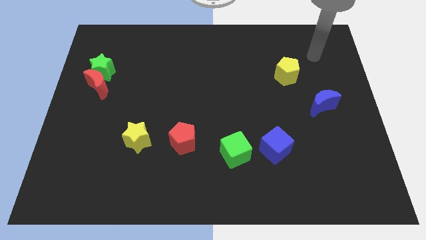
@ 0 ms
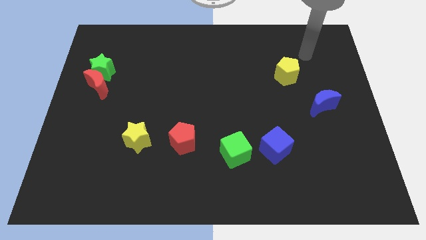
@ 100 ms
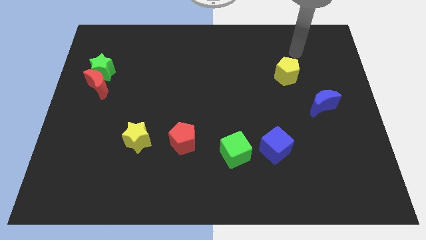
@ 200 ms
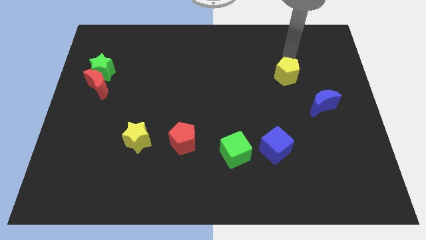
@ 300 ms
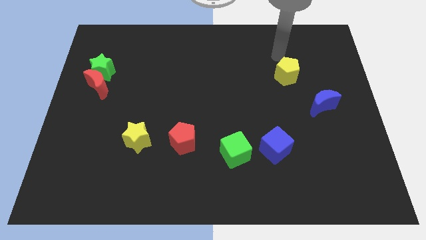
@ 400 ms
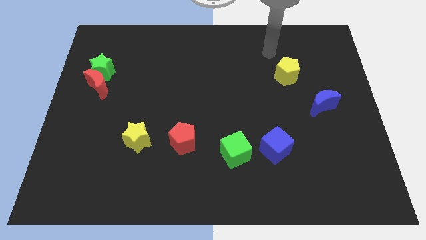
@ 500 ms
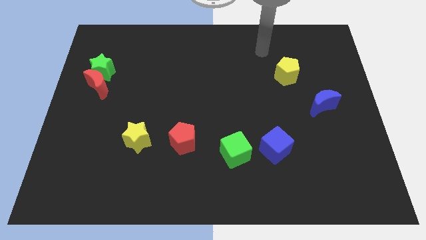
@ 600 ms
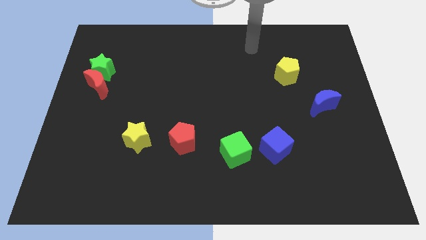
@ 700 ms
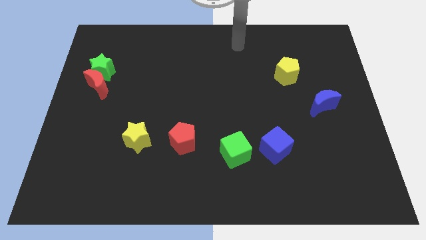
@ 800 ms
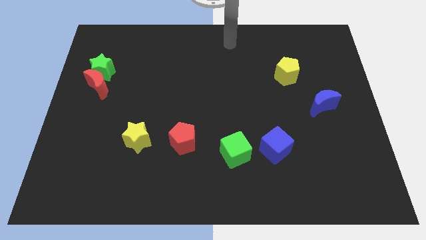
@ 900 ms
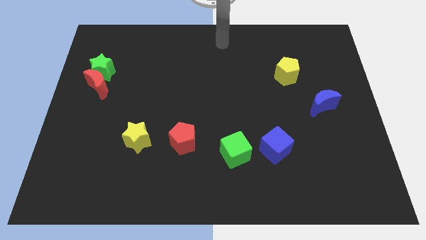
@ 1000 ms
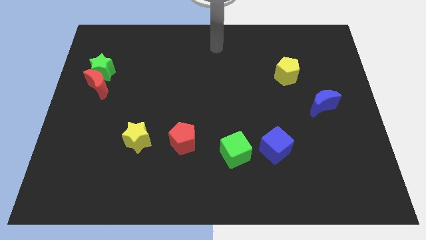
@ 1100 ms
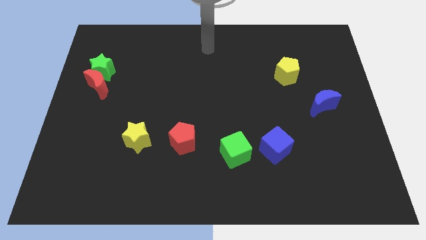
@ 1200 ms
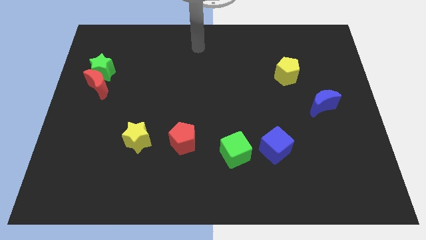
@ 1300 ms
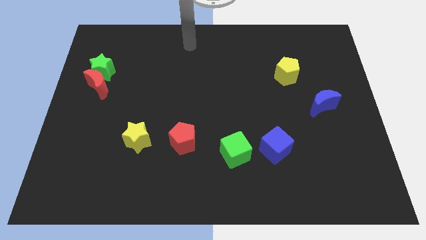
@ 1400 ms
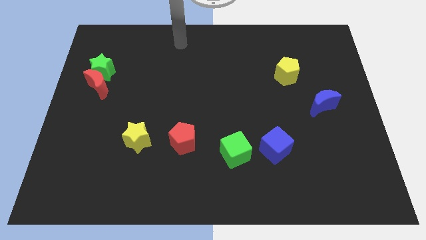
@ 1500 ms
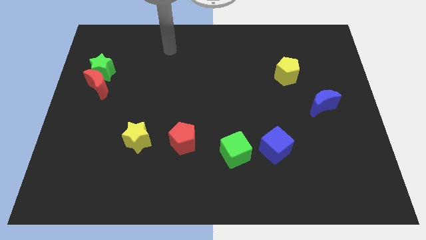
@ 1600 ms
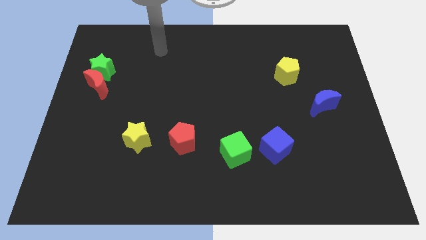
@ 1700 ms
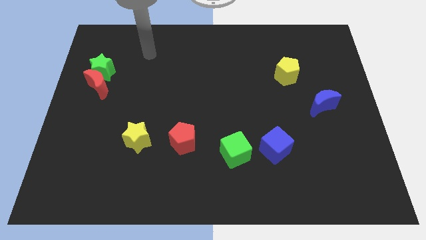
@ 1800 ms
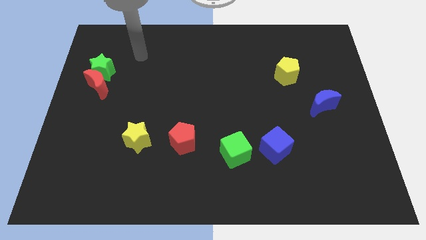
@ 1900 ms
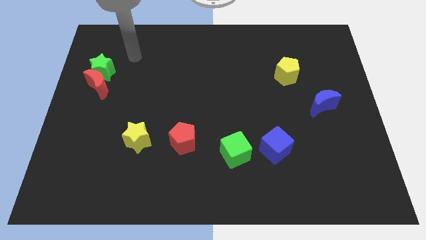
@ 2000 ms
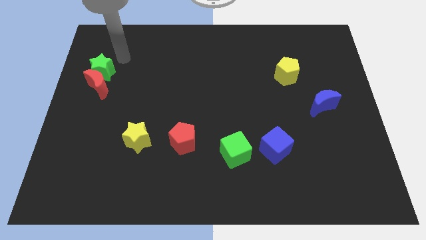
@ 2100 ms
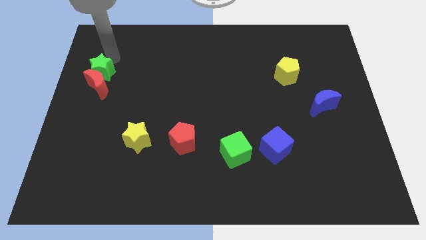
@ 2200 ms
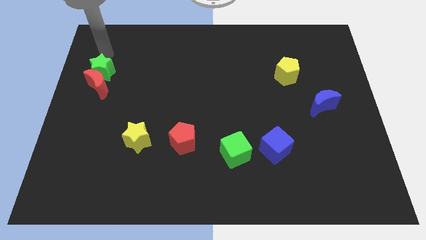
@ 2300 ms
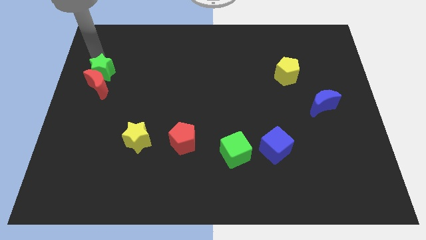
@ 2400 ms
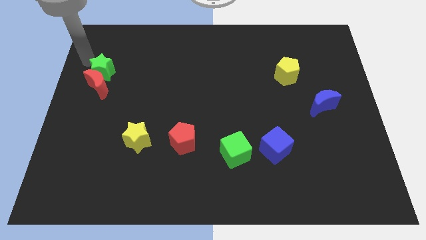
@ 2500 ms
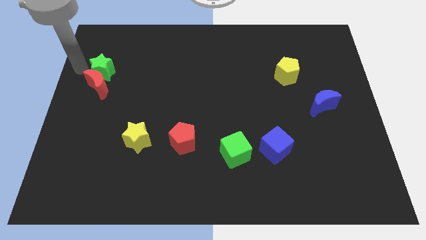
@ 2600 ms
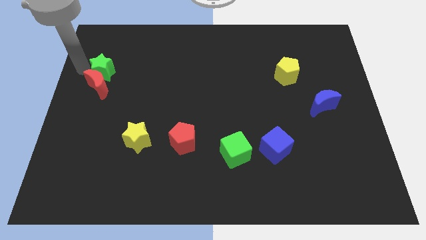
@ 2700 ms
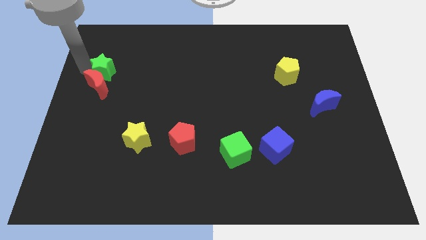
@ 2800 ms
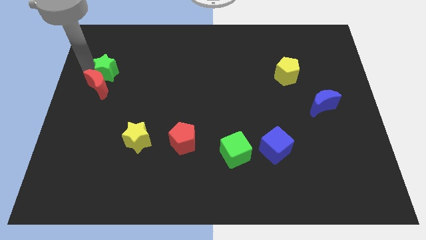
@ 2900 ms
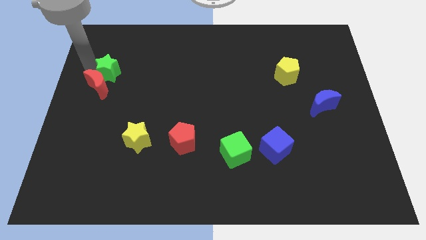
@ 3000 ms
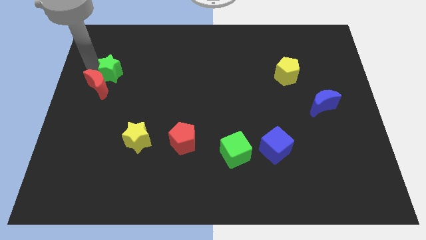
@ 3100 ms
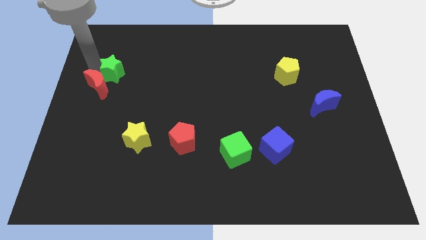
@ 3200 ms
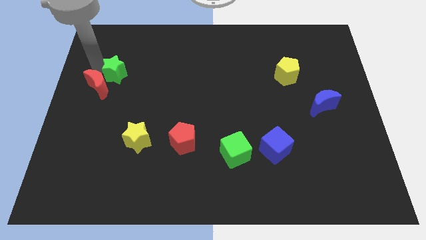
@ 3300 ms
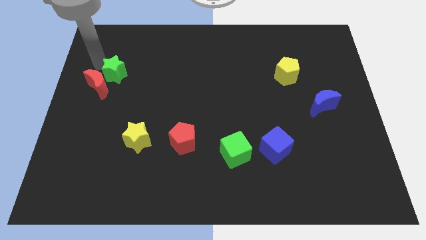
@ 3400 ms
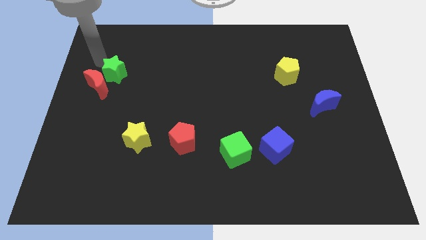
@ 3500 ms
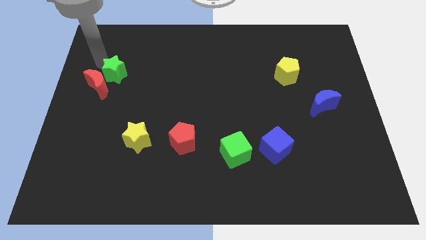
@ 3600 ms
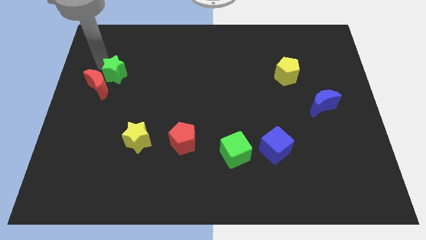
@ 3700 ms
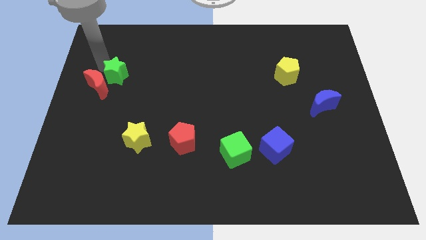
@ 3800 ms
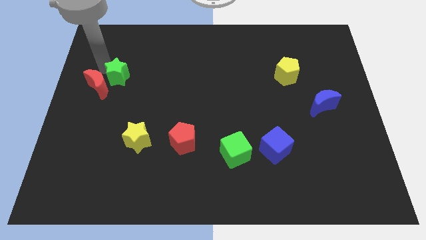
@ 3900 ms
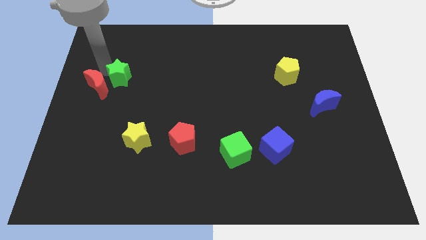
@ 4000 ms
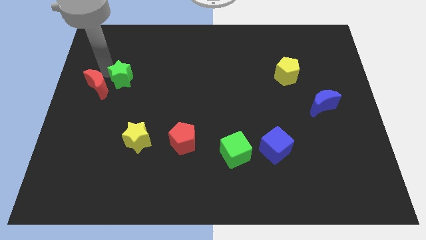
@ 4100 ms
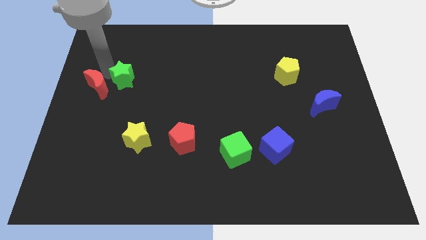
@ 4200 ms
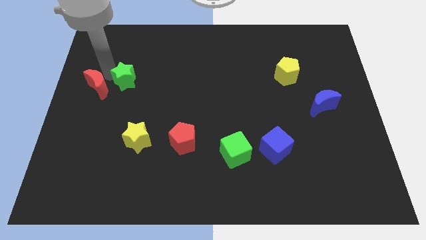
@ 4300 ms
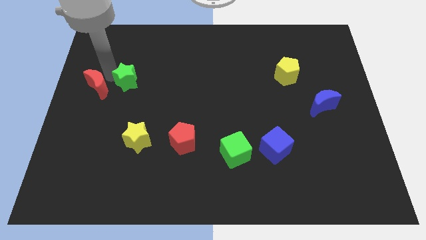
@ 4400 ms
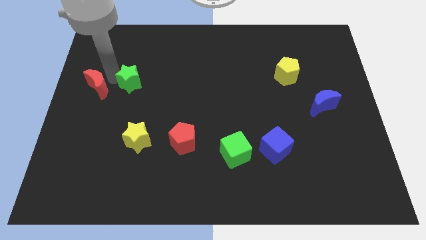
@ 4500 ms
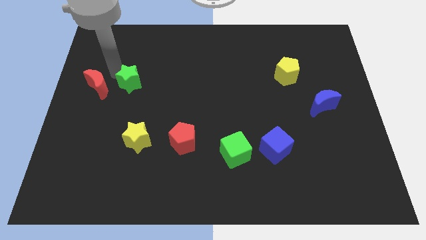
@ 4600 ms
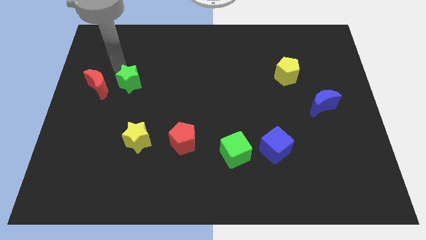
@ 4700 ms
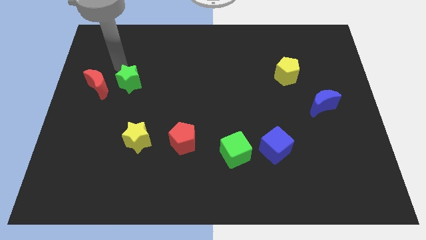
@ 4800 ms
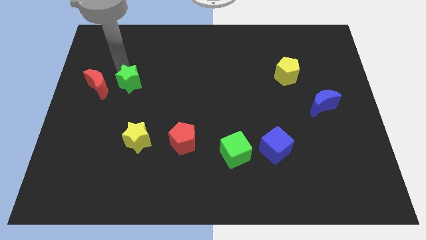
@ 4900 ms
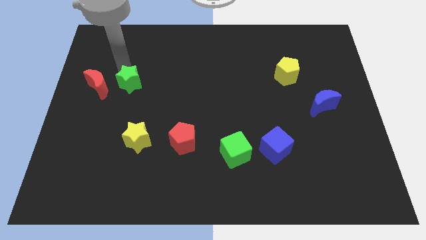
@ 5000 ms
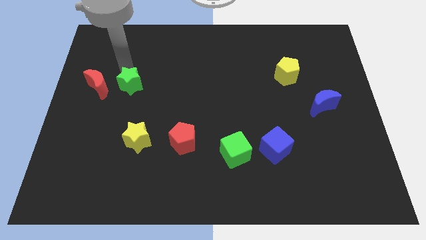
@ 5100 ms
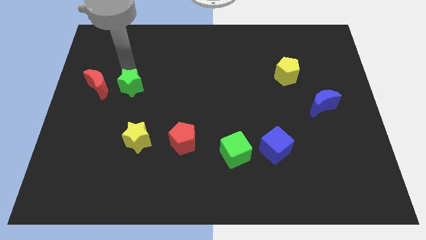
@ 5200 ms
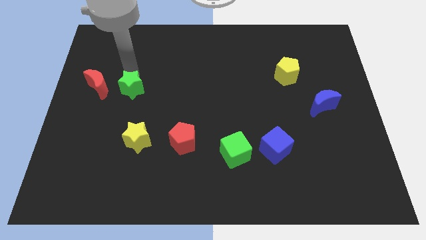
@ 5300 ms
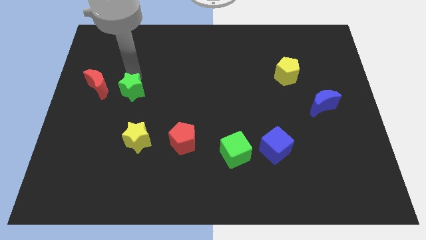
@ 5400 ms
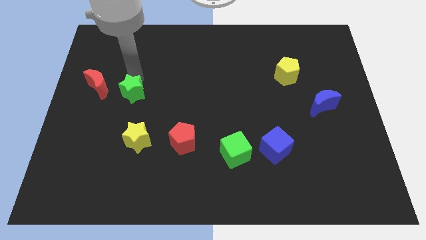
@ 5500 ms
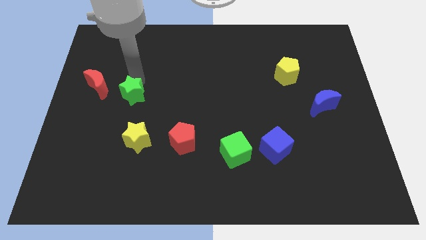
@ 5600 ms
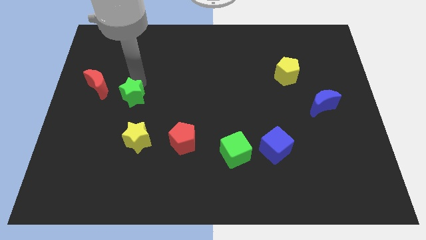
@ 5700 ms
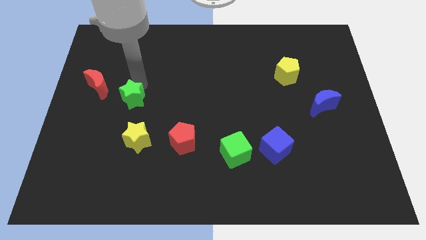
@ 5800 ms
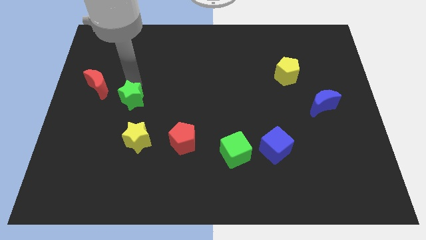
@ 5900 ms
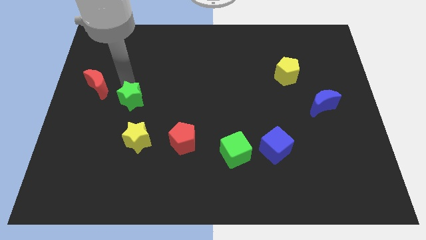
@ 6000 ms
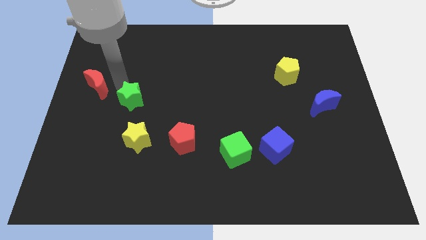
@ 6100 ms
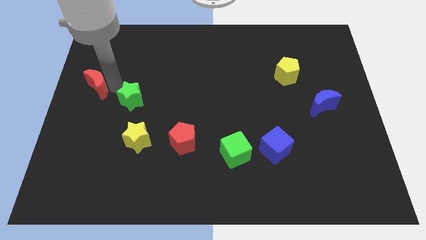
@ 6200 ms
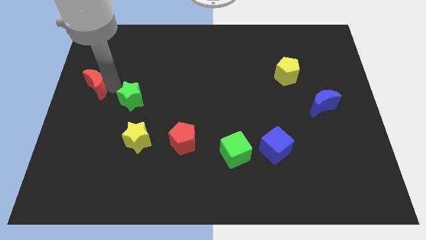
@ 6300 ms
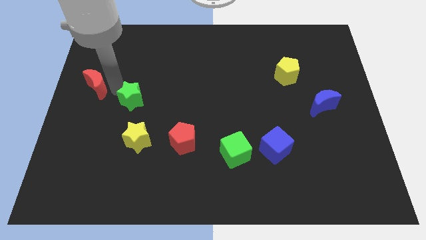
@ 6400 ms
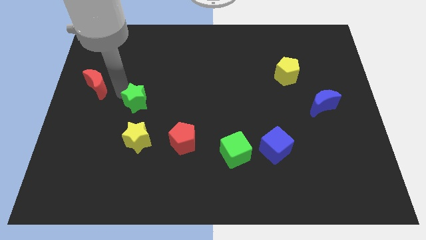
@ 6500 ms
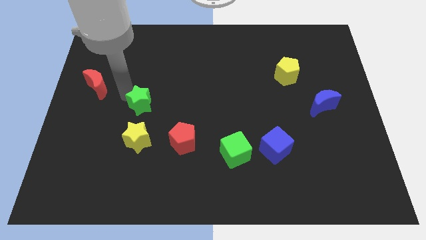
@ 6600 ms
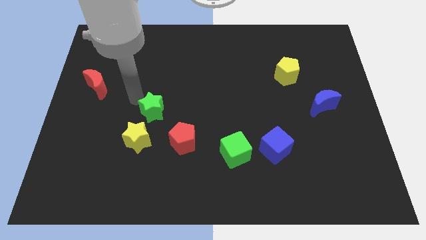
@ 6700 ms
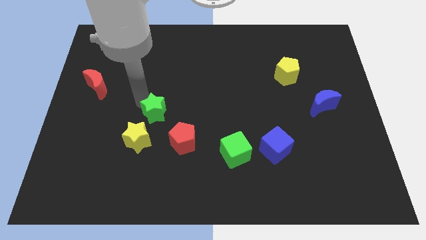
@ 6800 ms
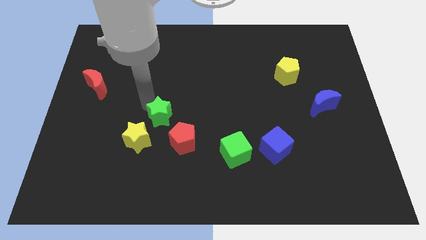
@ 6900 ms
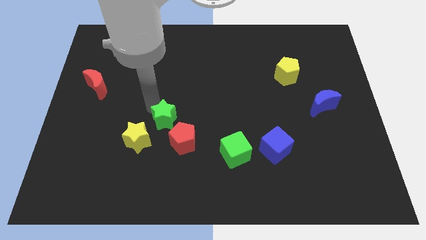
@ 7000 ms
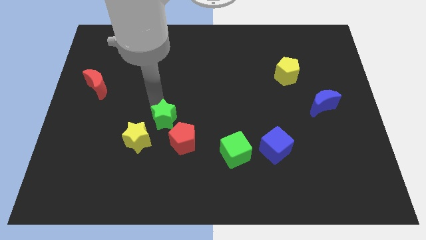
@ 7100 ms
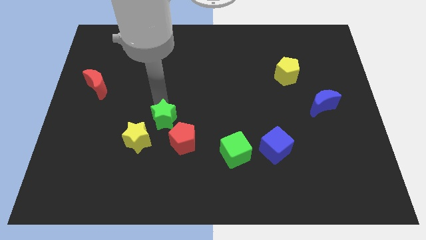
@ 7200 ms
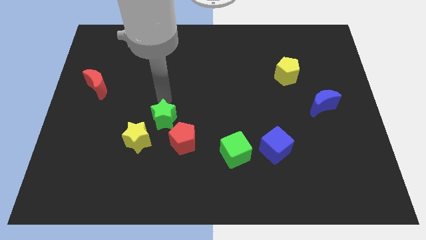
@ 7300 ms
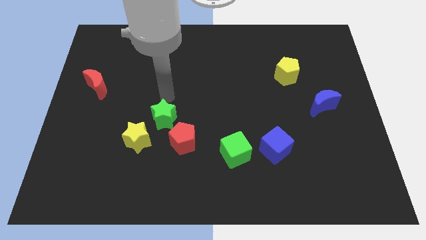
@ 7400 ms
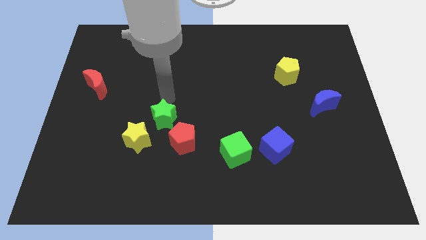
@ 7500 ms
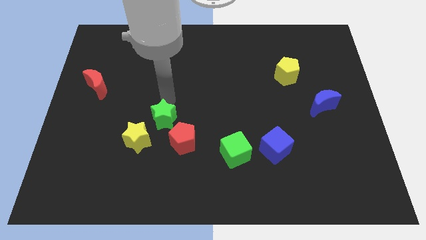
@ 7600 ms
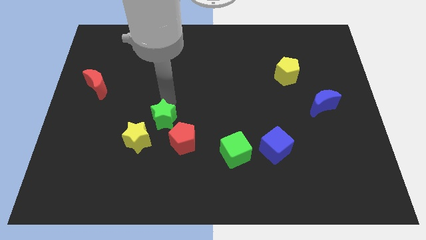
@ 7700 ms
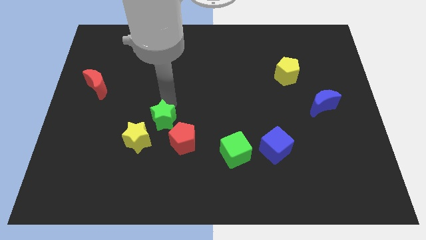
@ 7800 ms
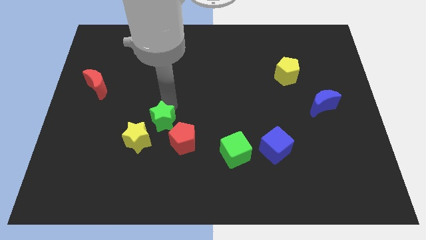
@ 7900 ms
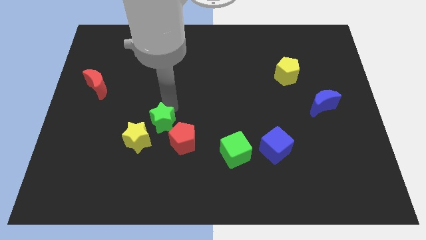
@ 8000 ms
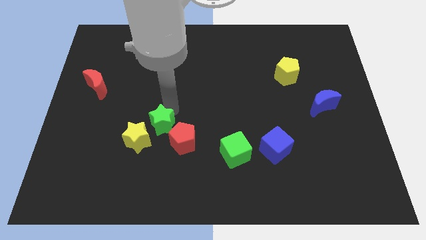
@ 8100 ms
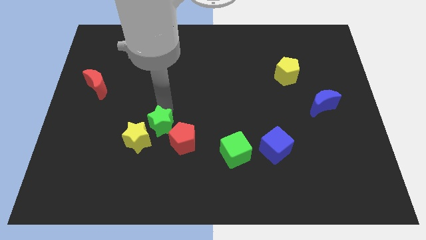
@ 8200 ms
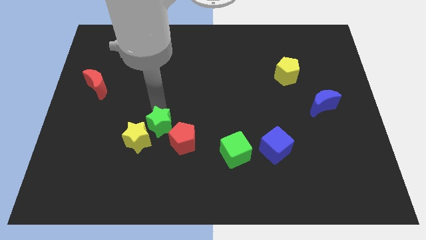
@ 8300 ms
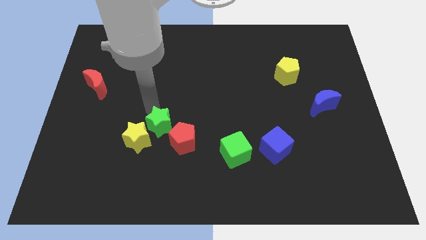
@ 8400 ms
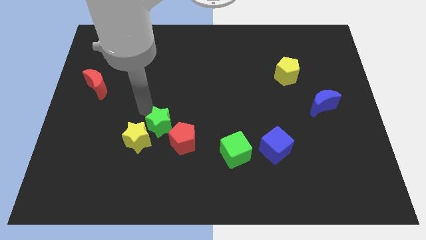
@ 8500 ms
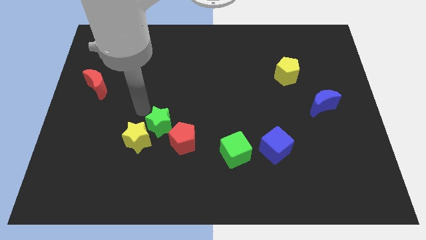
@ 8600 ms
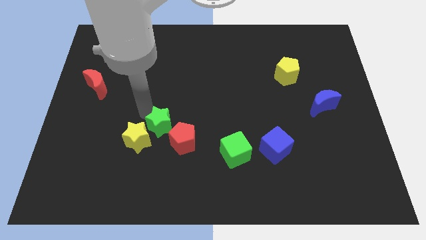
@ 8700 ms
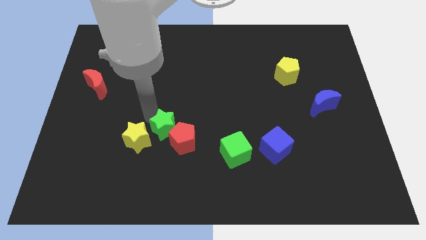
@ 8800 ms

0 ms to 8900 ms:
put the green star close to the red pentagon
